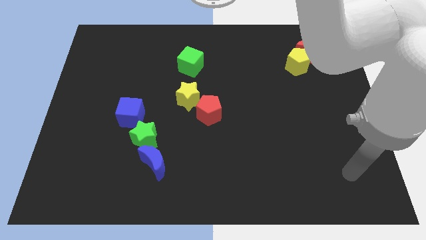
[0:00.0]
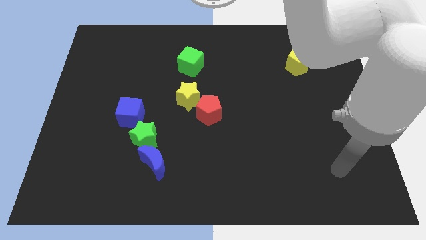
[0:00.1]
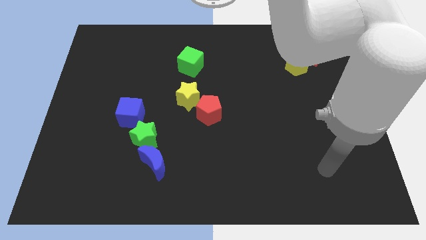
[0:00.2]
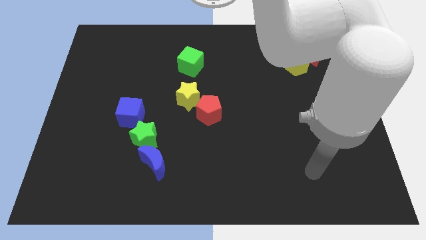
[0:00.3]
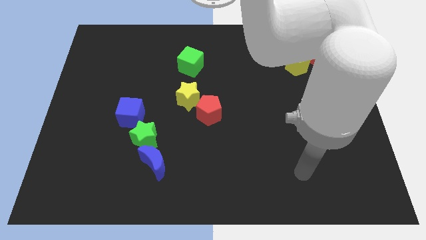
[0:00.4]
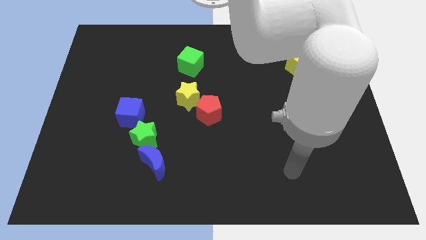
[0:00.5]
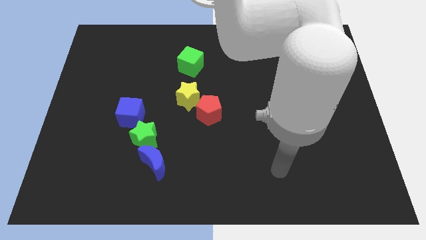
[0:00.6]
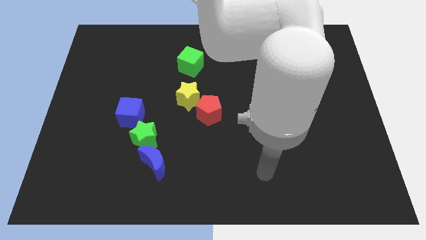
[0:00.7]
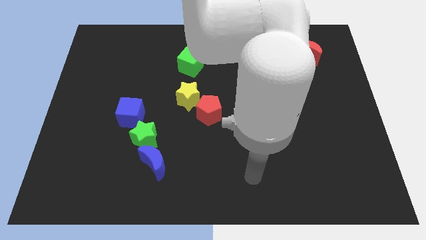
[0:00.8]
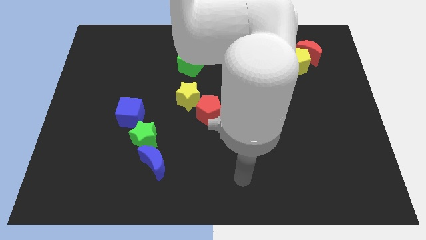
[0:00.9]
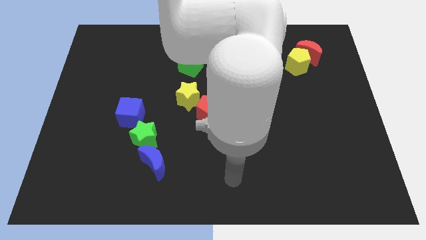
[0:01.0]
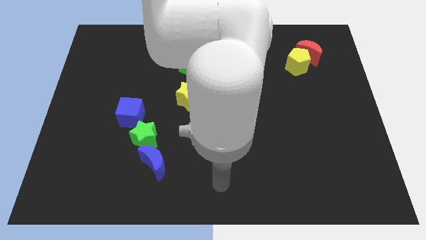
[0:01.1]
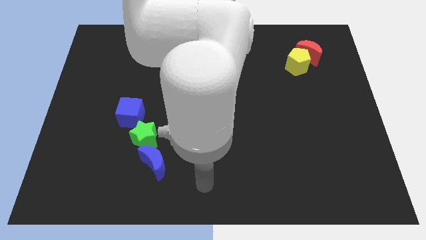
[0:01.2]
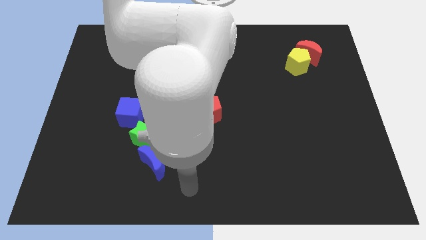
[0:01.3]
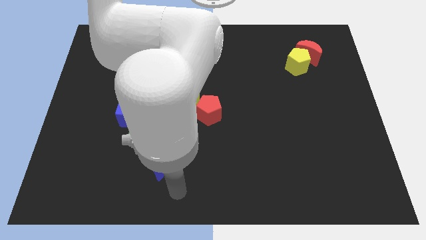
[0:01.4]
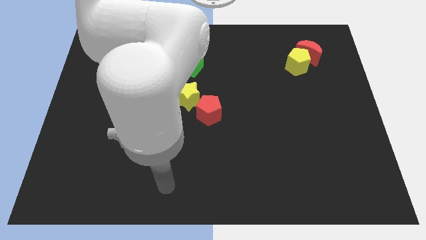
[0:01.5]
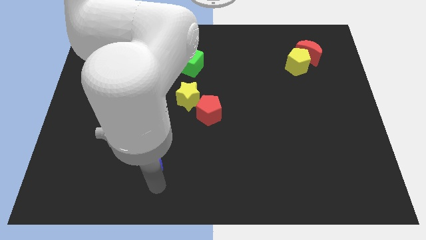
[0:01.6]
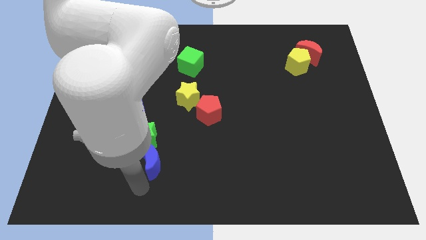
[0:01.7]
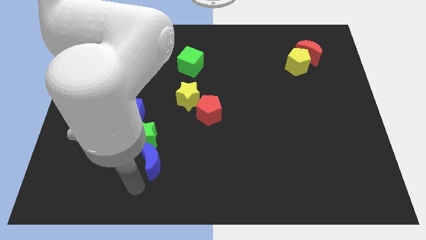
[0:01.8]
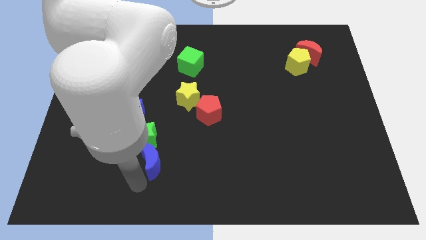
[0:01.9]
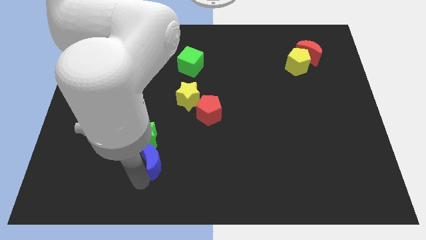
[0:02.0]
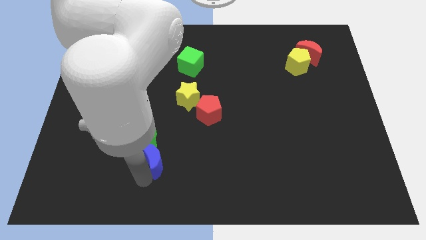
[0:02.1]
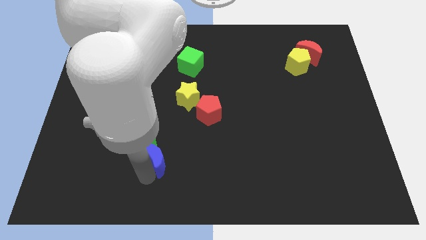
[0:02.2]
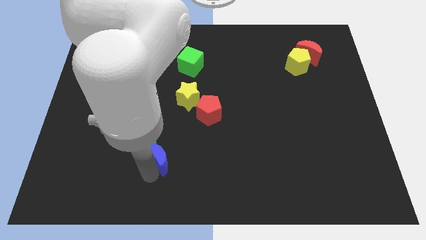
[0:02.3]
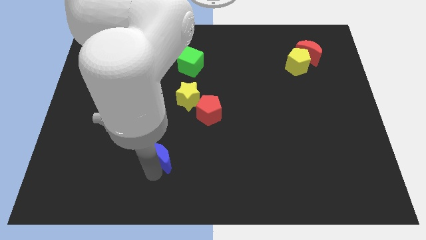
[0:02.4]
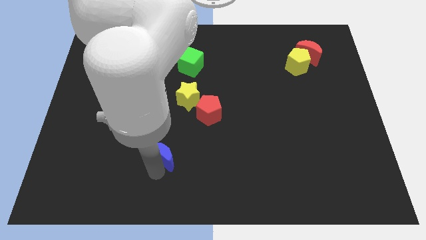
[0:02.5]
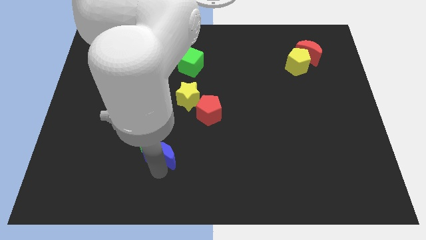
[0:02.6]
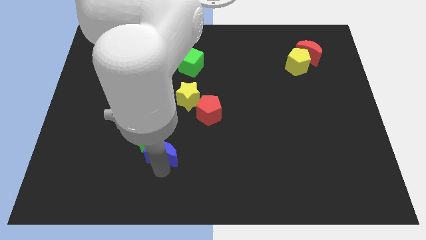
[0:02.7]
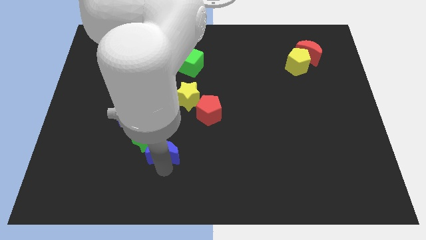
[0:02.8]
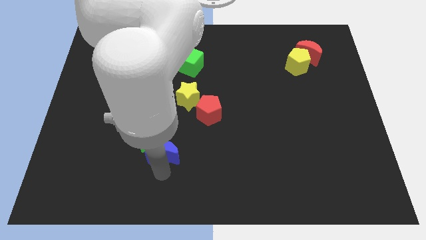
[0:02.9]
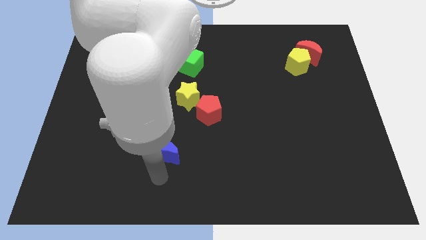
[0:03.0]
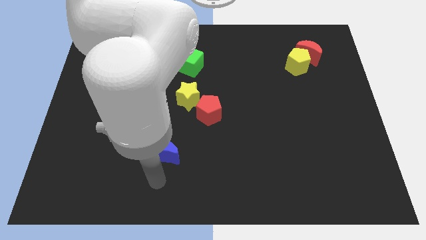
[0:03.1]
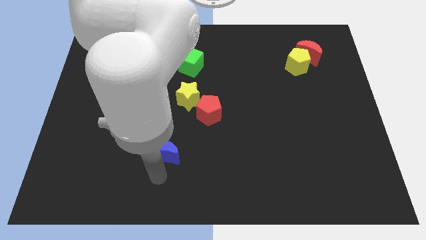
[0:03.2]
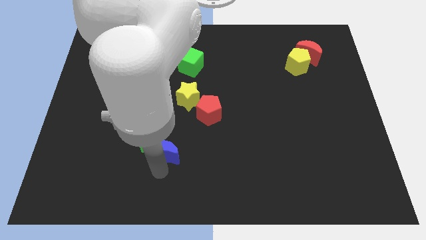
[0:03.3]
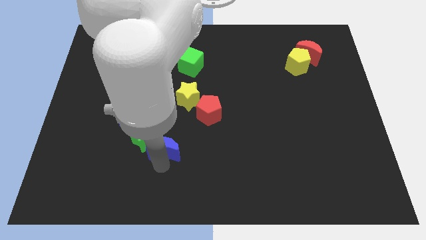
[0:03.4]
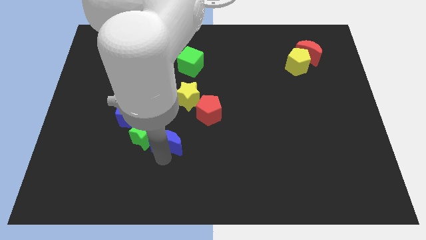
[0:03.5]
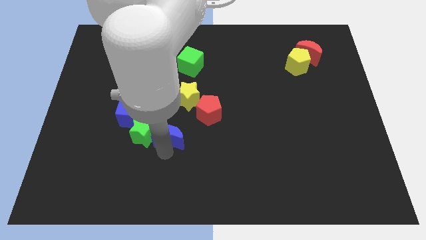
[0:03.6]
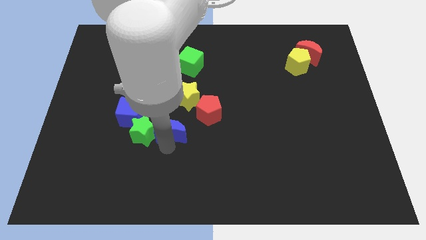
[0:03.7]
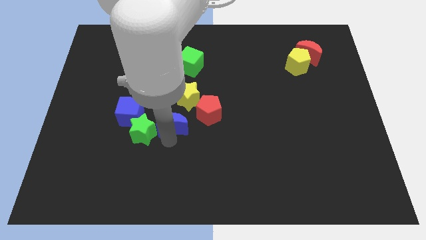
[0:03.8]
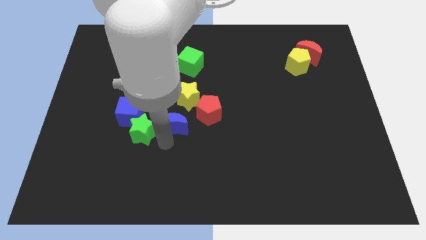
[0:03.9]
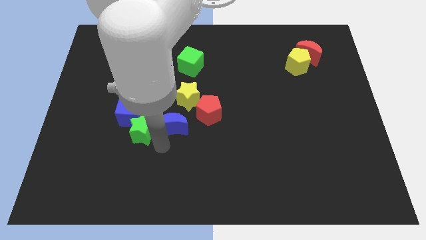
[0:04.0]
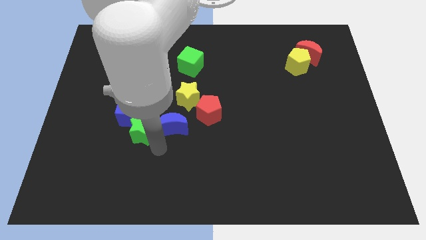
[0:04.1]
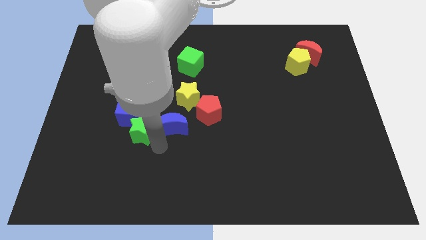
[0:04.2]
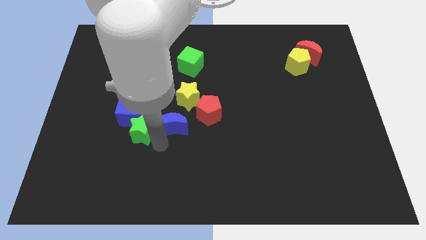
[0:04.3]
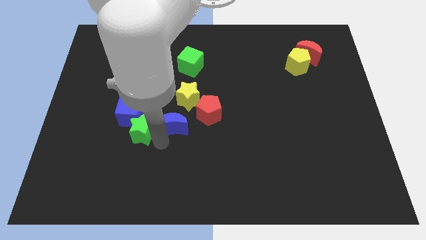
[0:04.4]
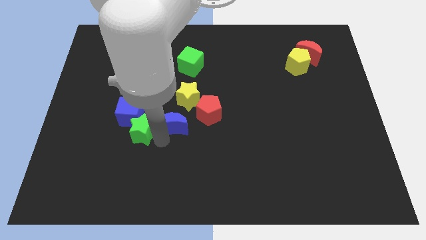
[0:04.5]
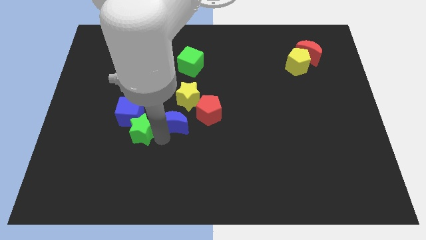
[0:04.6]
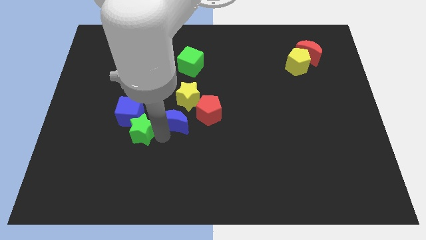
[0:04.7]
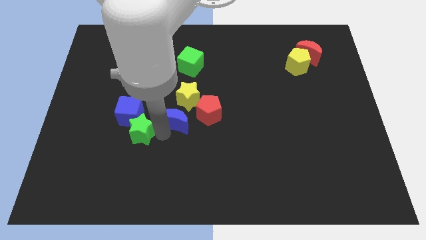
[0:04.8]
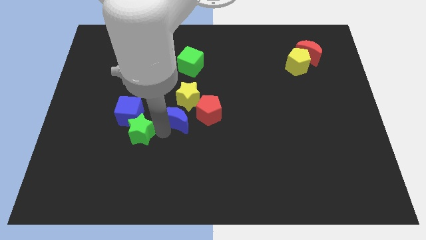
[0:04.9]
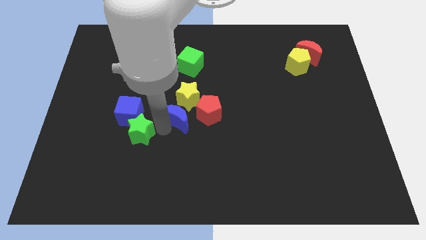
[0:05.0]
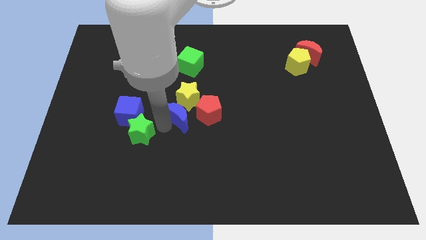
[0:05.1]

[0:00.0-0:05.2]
move the blue moon next to the yellow star

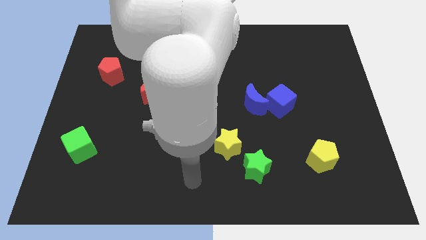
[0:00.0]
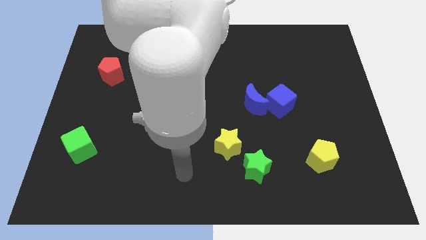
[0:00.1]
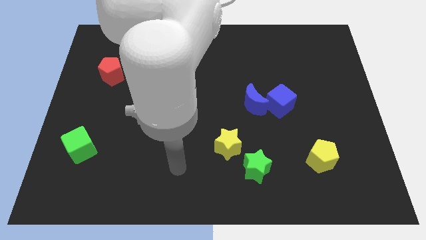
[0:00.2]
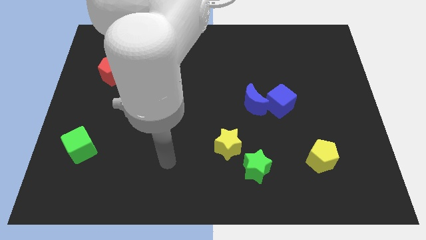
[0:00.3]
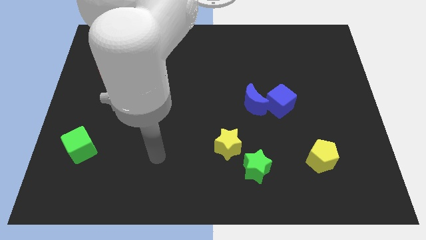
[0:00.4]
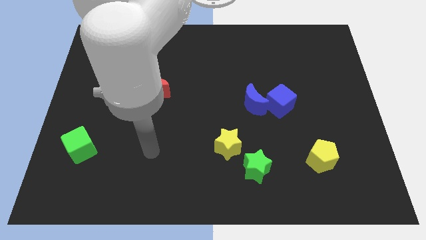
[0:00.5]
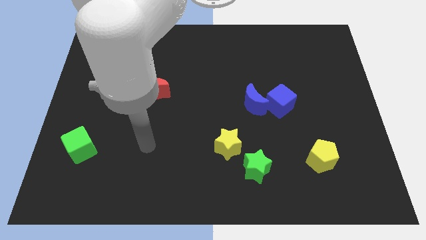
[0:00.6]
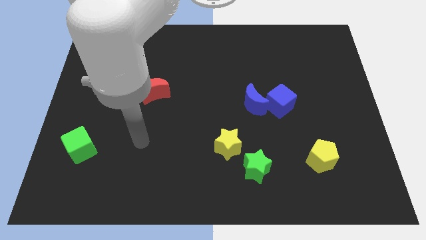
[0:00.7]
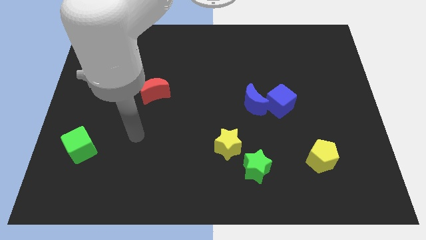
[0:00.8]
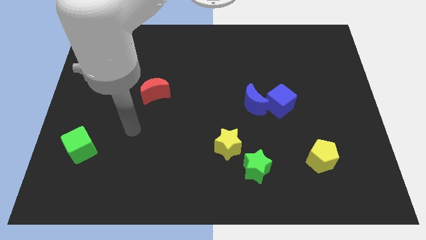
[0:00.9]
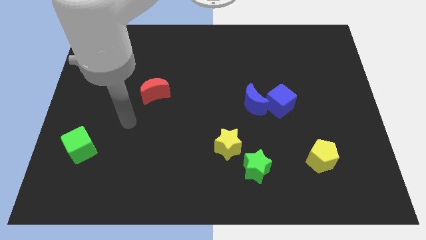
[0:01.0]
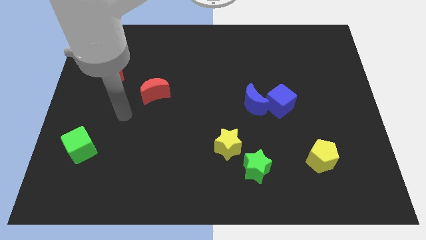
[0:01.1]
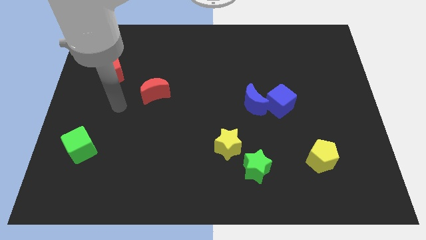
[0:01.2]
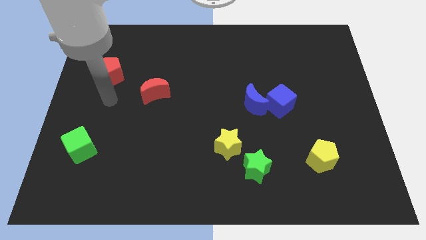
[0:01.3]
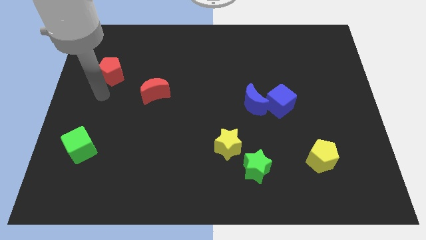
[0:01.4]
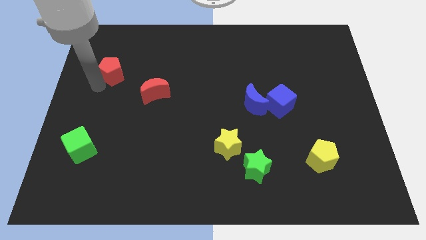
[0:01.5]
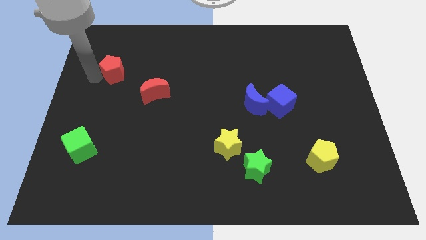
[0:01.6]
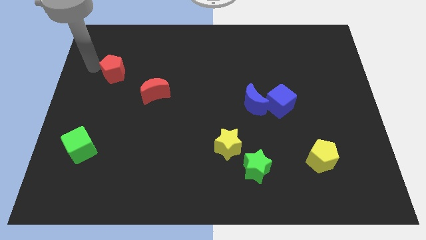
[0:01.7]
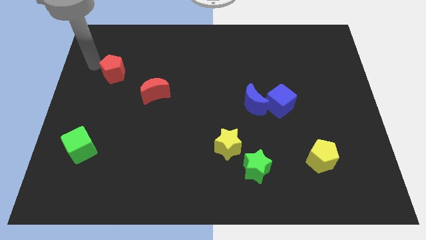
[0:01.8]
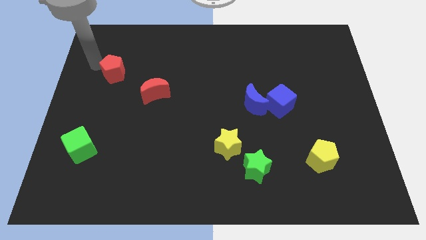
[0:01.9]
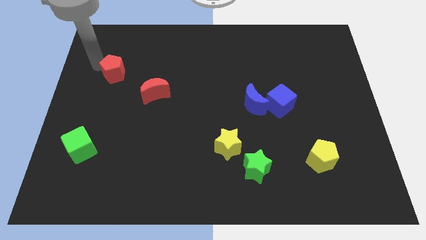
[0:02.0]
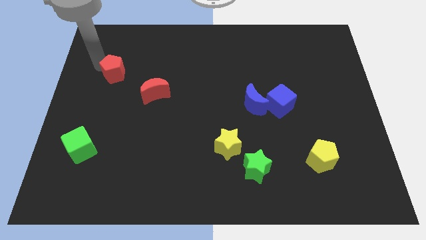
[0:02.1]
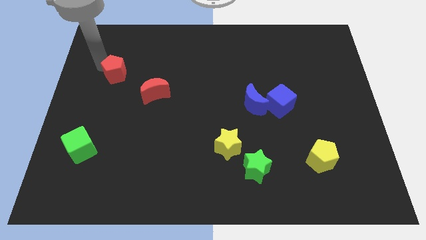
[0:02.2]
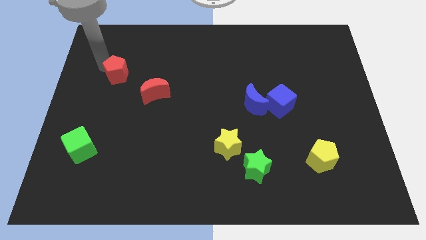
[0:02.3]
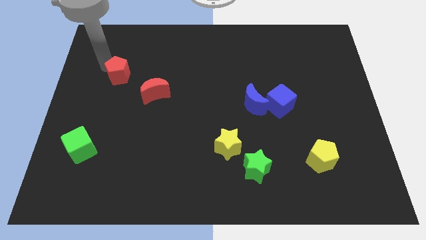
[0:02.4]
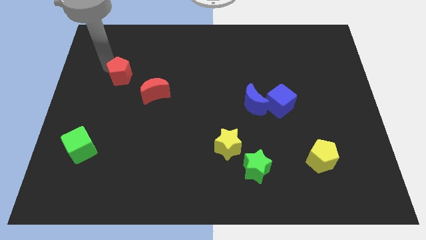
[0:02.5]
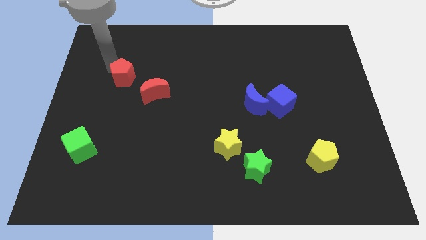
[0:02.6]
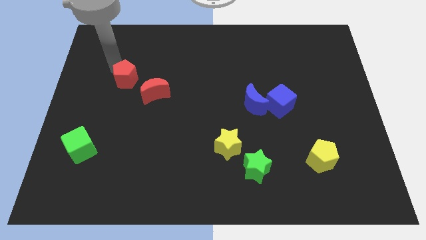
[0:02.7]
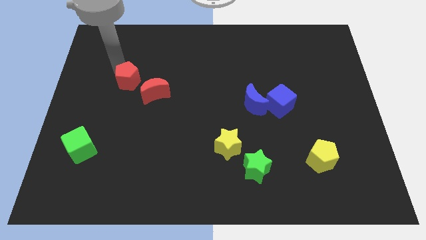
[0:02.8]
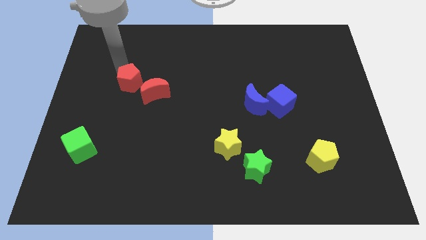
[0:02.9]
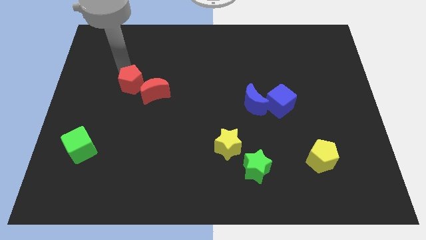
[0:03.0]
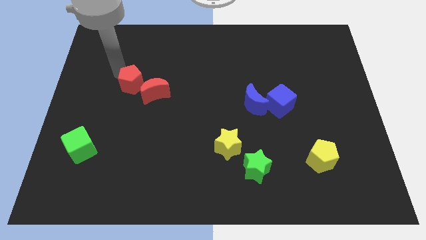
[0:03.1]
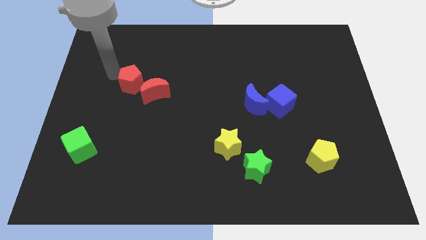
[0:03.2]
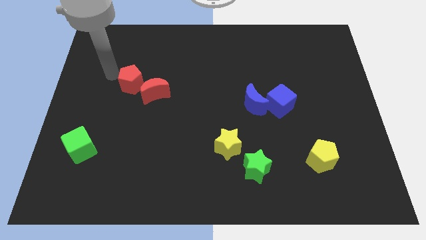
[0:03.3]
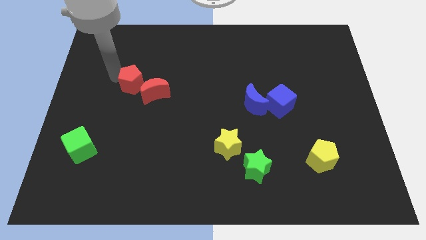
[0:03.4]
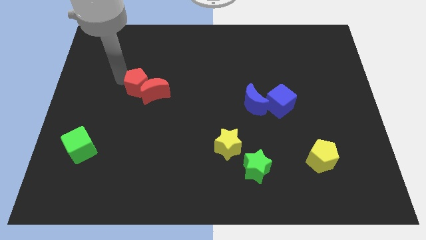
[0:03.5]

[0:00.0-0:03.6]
move the red pentagon next to the red moon
